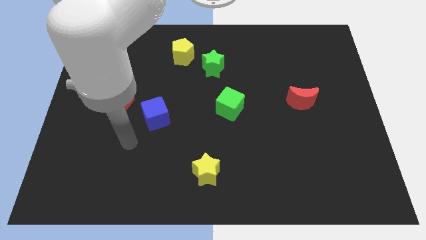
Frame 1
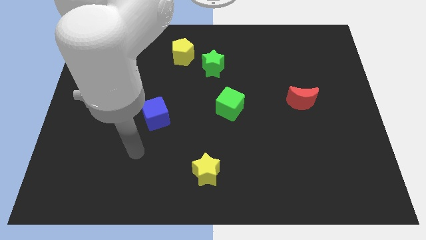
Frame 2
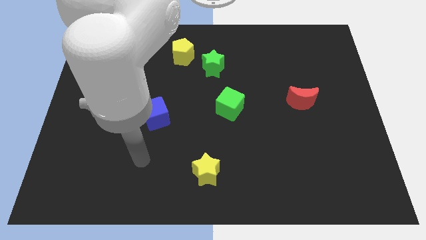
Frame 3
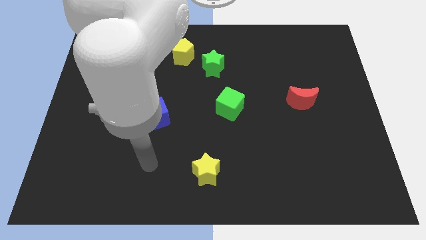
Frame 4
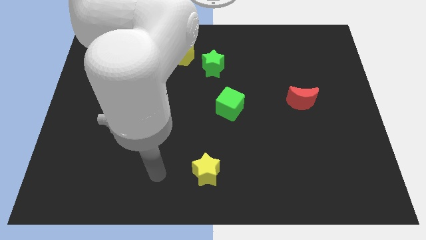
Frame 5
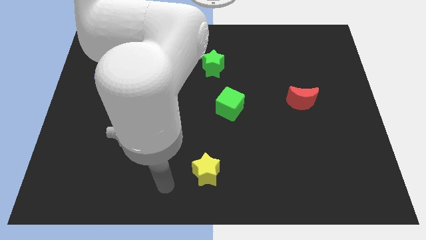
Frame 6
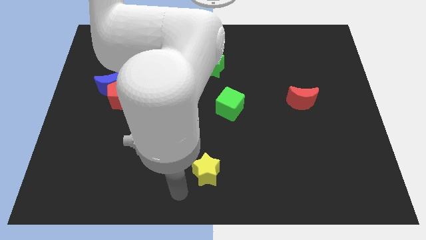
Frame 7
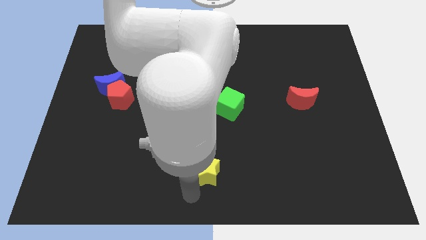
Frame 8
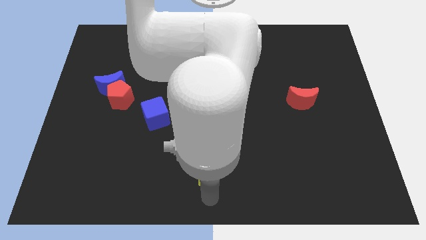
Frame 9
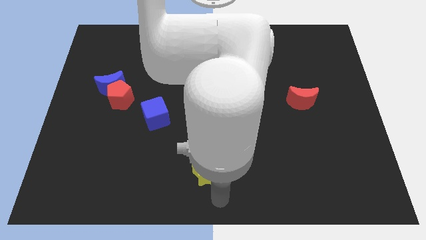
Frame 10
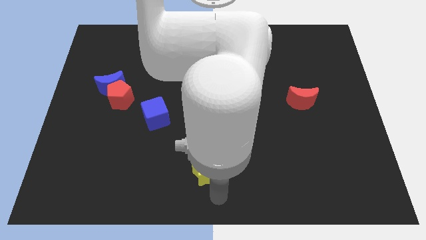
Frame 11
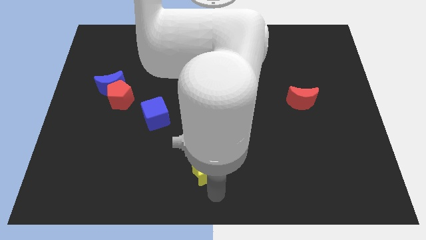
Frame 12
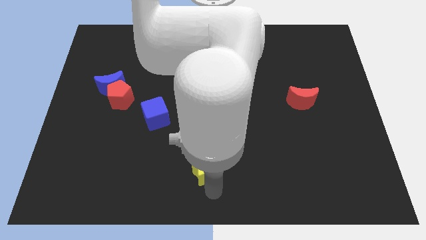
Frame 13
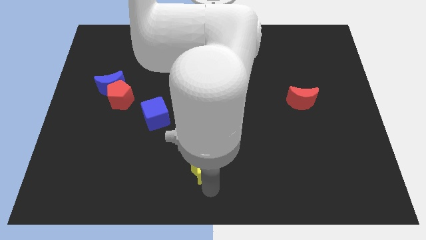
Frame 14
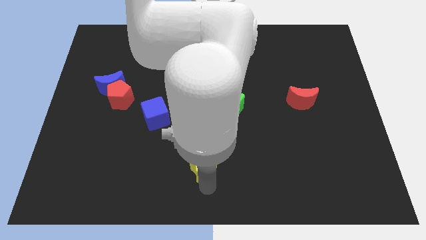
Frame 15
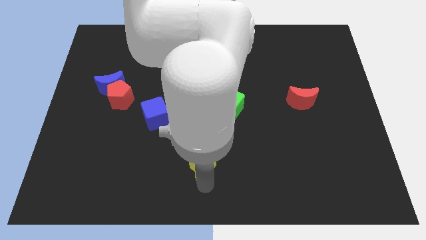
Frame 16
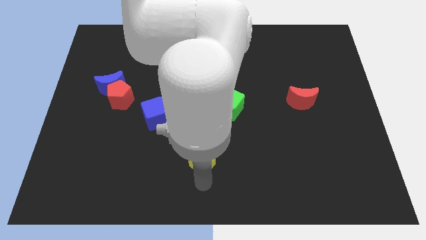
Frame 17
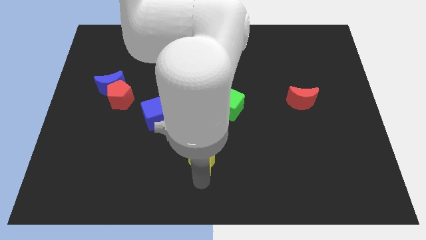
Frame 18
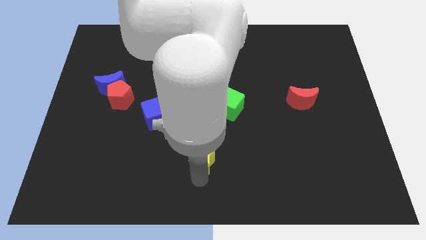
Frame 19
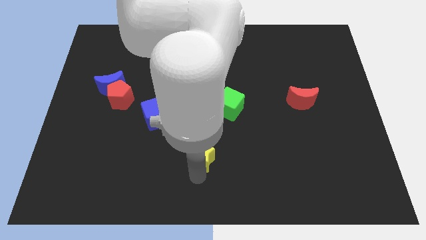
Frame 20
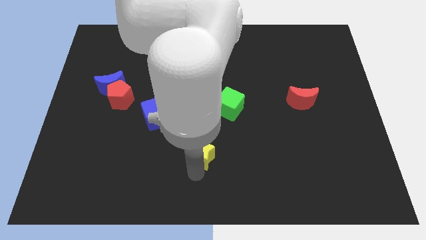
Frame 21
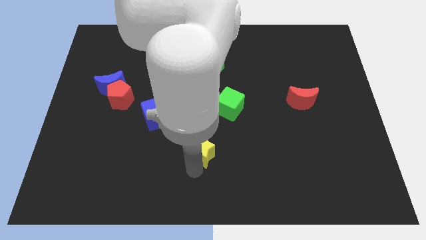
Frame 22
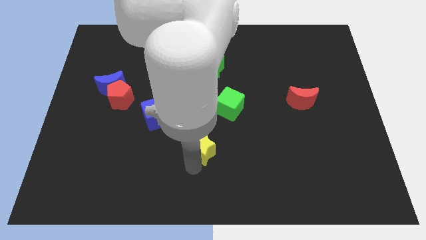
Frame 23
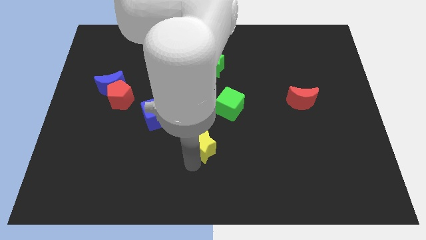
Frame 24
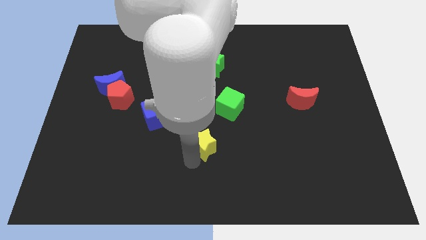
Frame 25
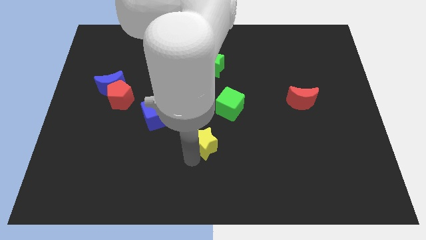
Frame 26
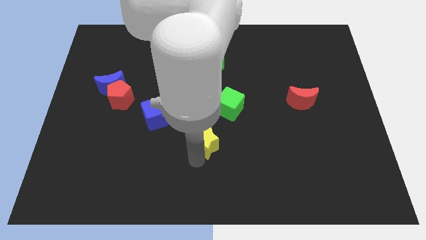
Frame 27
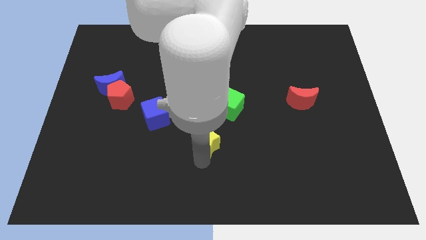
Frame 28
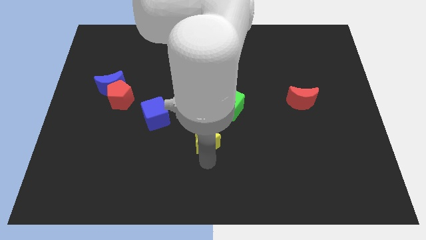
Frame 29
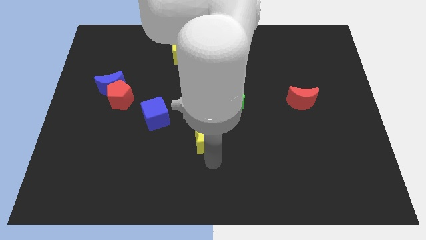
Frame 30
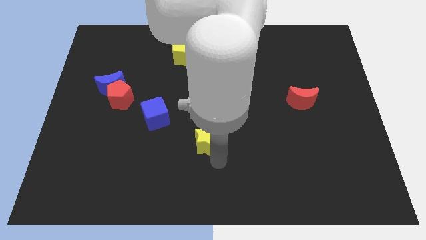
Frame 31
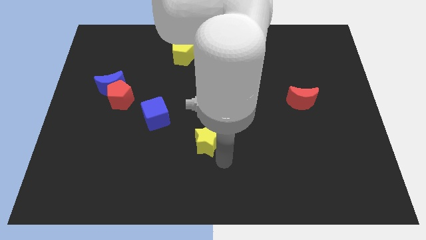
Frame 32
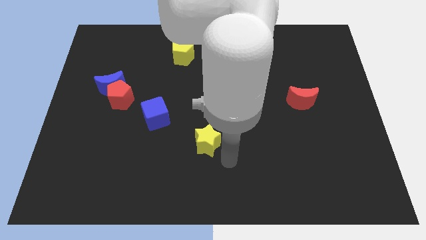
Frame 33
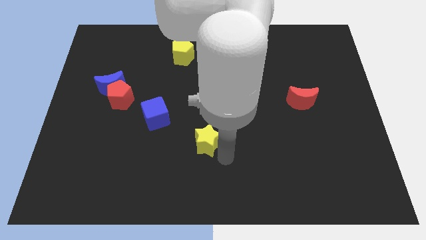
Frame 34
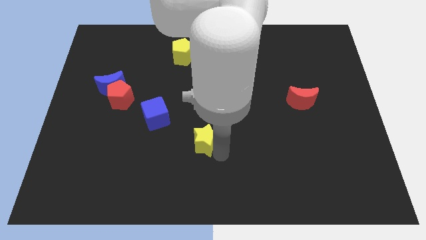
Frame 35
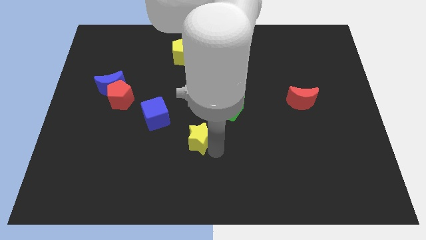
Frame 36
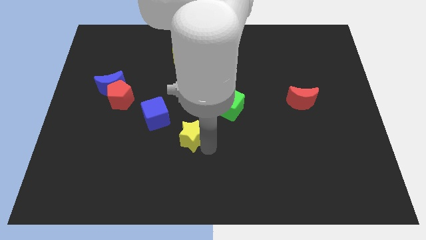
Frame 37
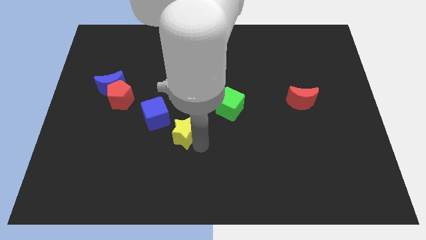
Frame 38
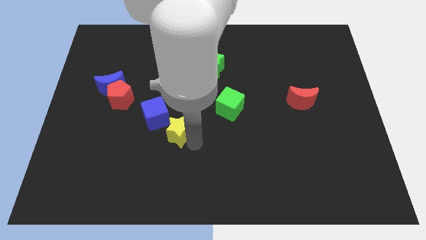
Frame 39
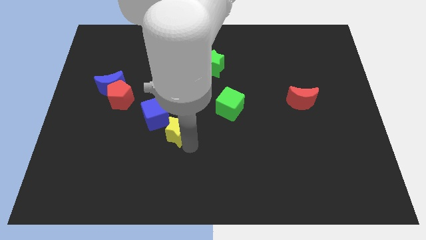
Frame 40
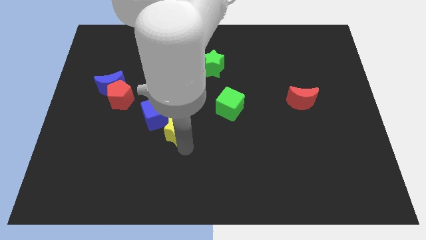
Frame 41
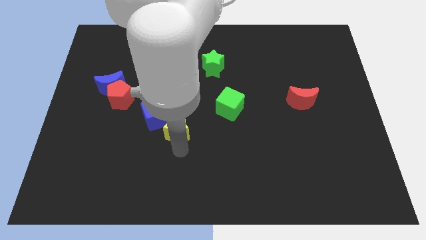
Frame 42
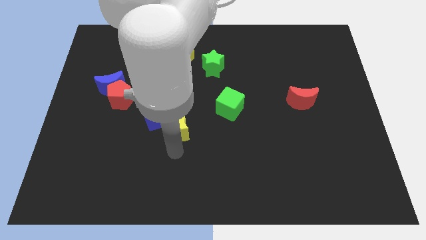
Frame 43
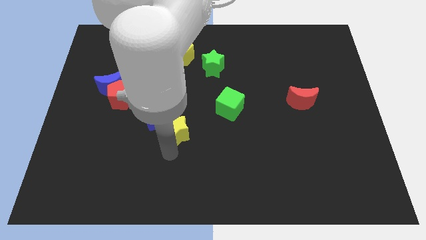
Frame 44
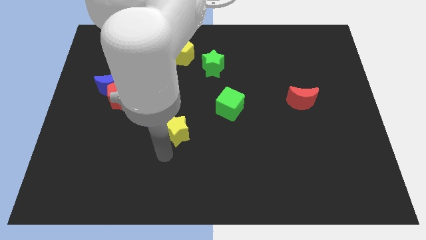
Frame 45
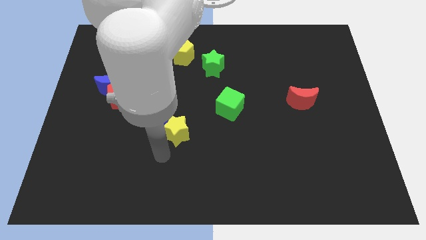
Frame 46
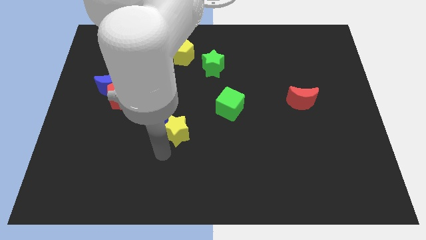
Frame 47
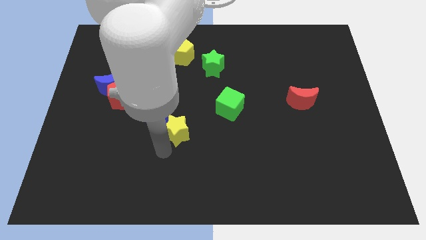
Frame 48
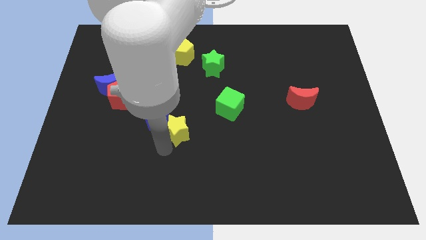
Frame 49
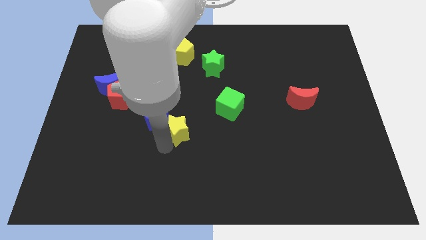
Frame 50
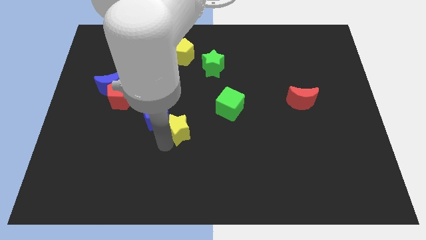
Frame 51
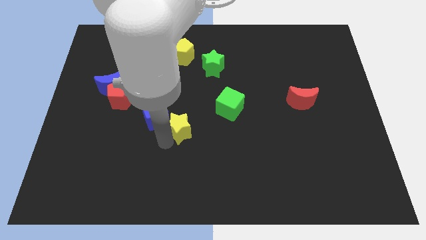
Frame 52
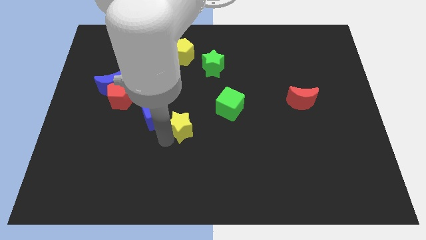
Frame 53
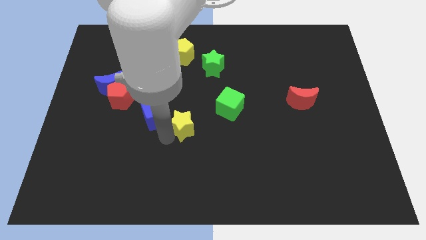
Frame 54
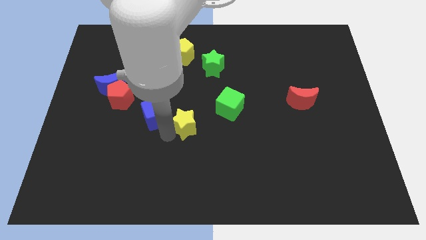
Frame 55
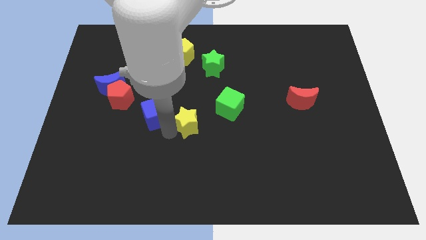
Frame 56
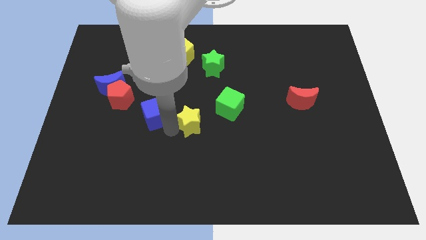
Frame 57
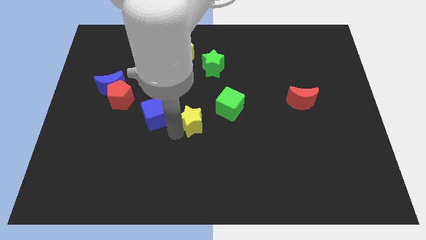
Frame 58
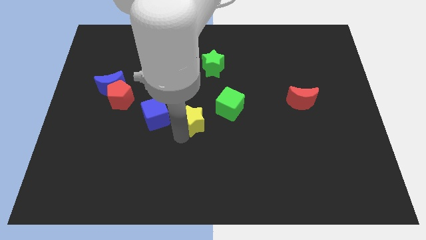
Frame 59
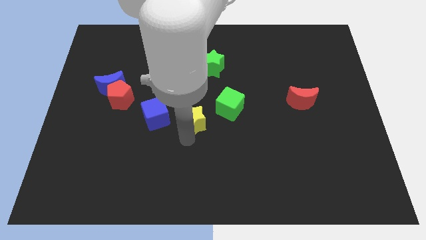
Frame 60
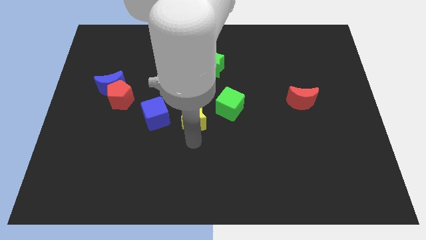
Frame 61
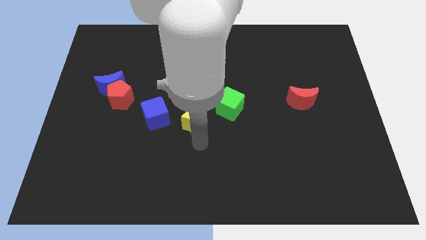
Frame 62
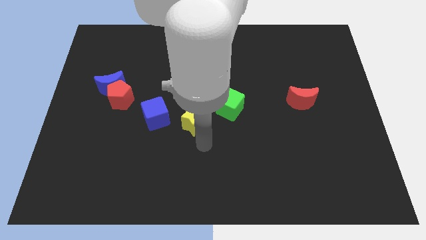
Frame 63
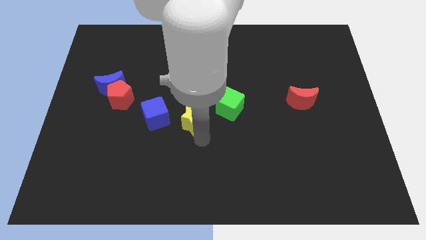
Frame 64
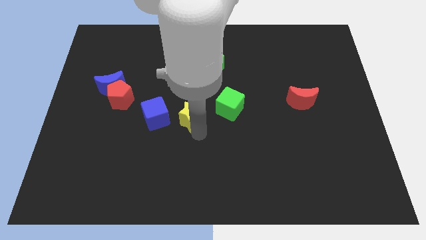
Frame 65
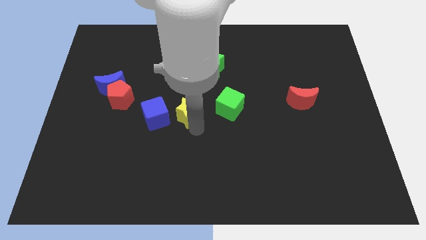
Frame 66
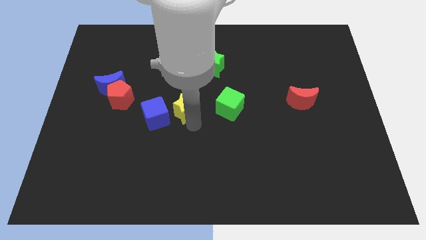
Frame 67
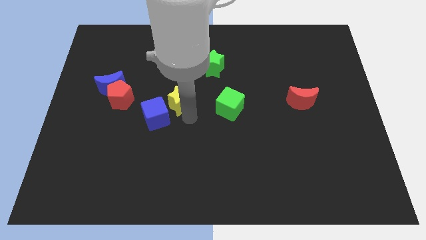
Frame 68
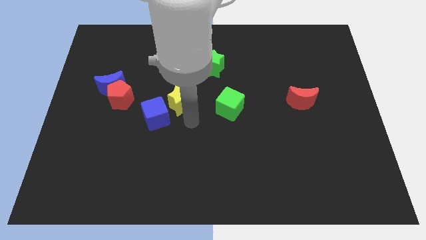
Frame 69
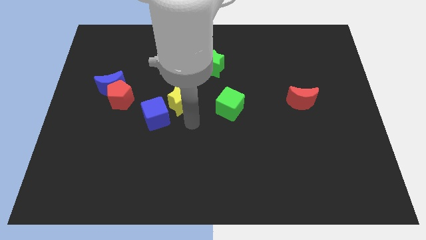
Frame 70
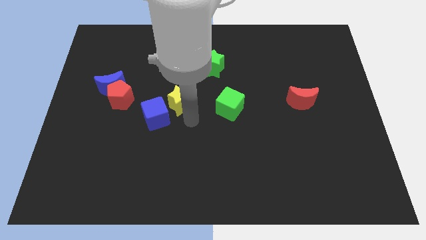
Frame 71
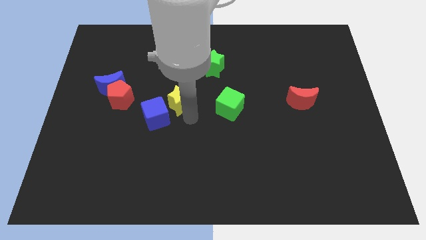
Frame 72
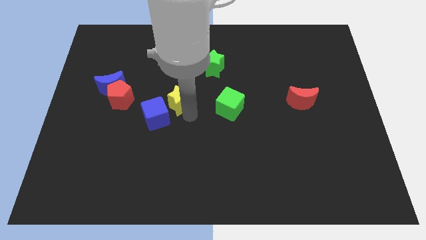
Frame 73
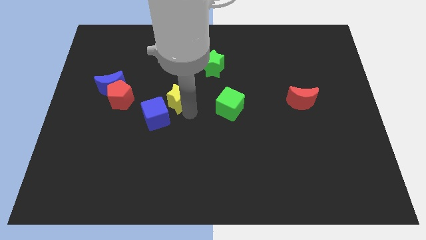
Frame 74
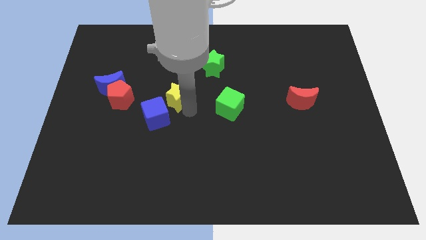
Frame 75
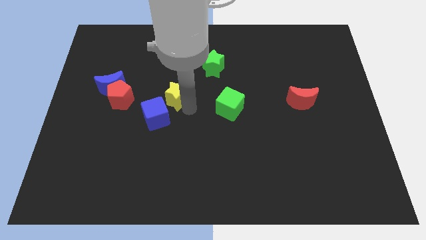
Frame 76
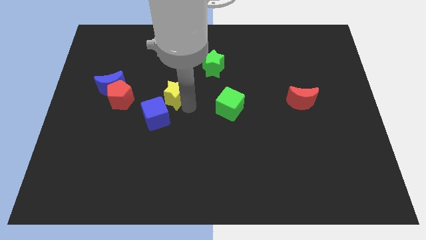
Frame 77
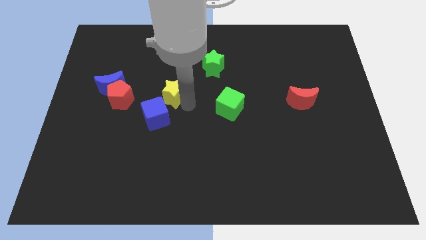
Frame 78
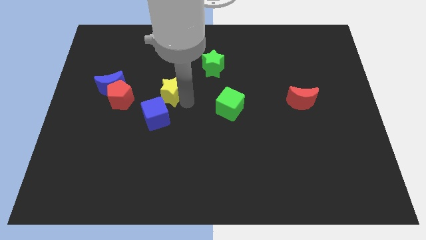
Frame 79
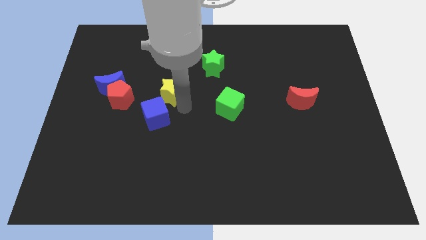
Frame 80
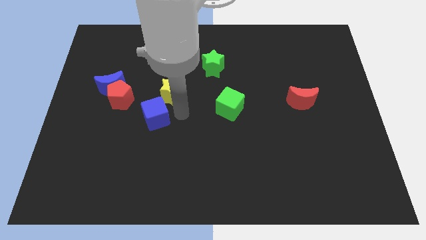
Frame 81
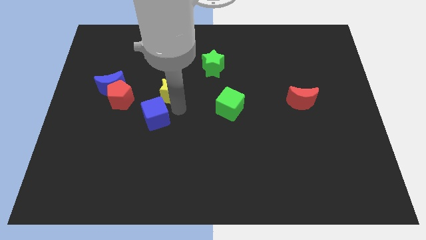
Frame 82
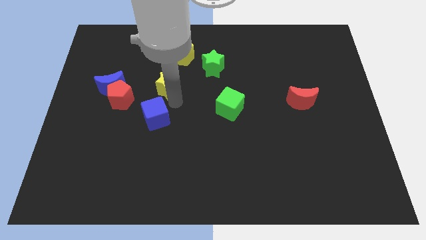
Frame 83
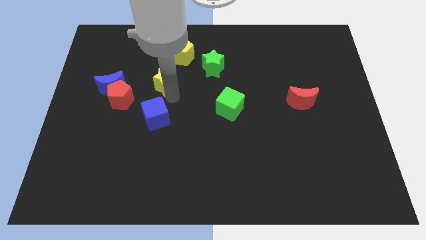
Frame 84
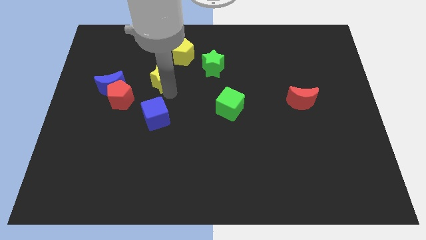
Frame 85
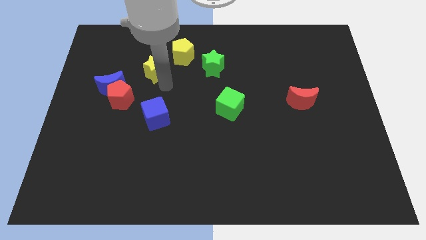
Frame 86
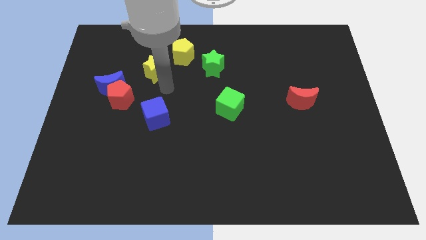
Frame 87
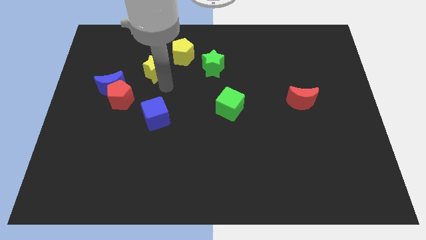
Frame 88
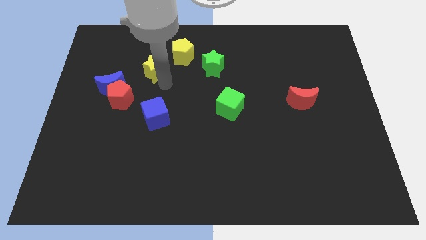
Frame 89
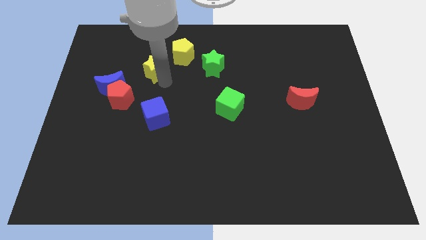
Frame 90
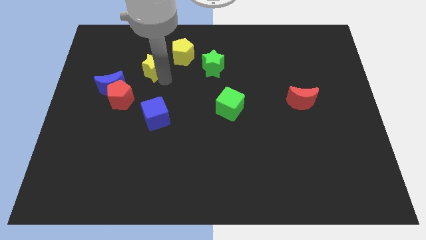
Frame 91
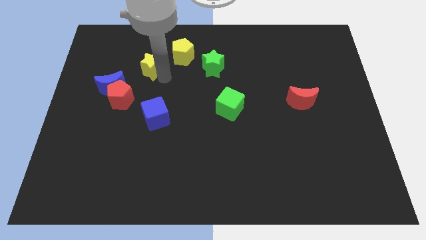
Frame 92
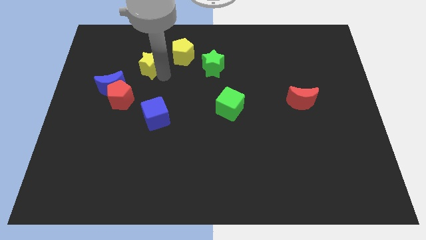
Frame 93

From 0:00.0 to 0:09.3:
slide the yellow star just left of the yellow pentagon
